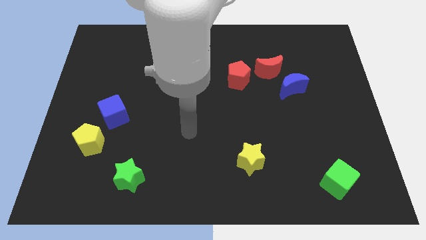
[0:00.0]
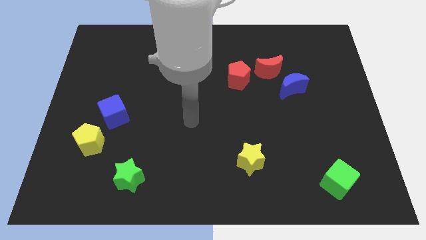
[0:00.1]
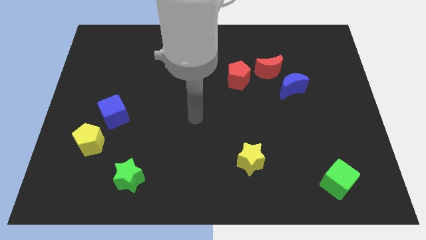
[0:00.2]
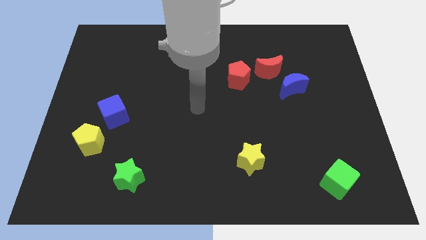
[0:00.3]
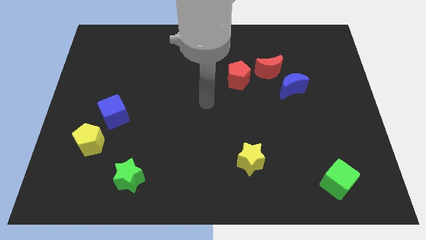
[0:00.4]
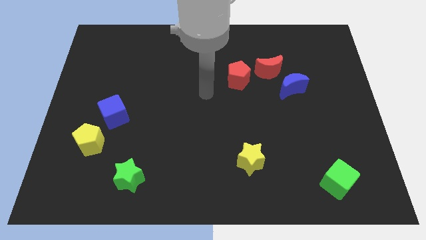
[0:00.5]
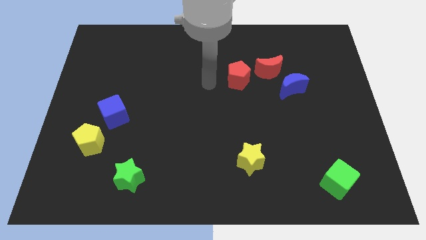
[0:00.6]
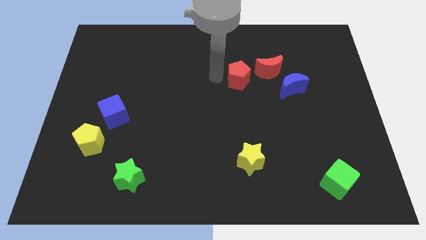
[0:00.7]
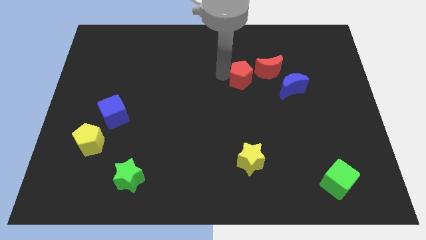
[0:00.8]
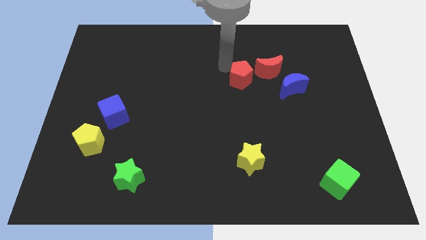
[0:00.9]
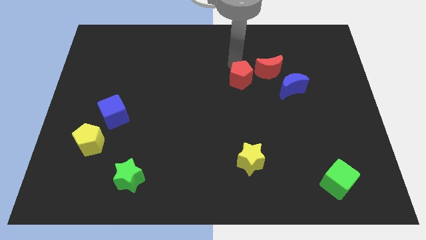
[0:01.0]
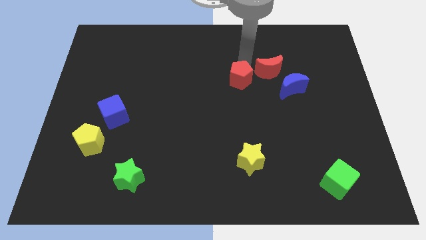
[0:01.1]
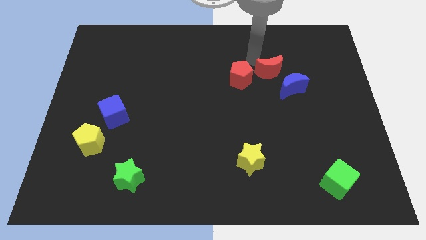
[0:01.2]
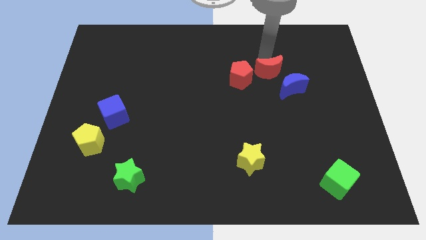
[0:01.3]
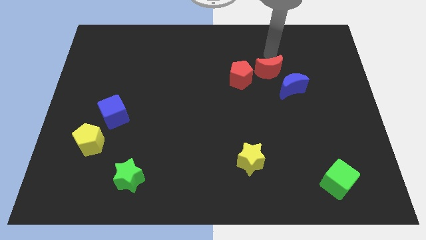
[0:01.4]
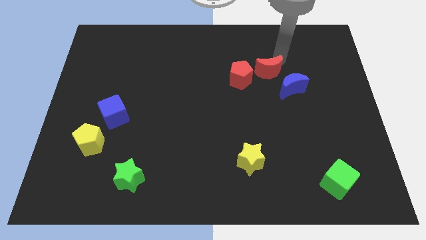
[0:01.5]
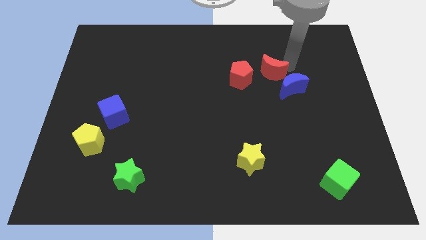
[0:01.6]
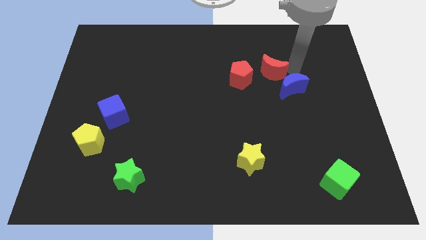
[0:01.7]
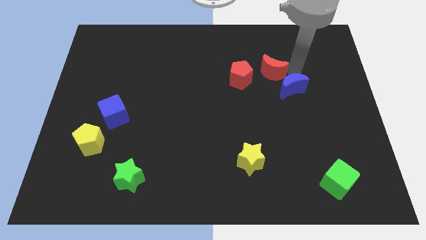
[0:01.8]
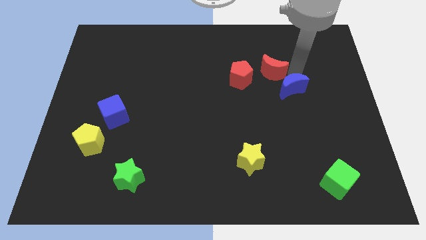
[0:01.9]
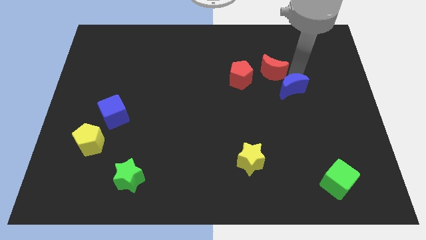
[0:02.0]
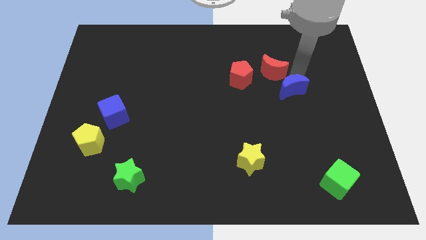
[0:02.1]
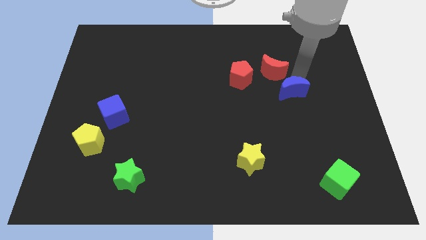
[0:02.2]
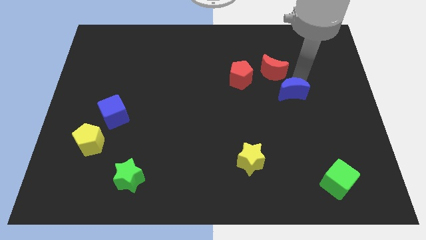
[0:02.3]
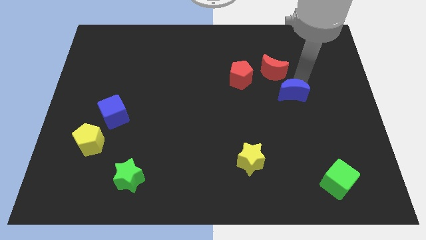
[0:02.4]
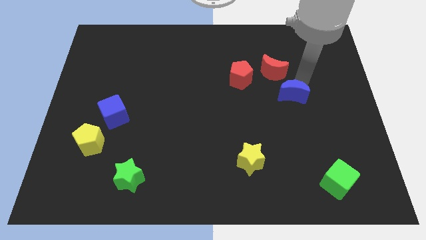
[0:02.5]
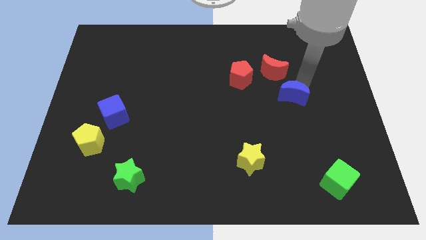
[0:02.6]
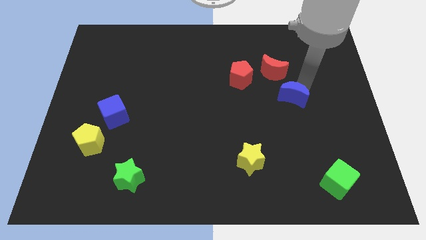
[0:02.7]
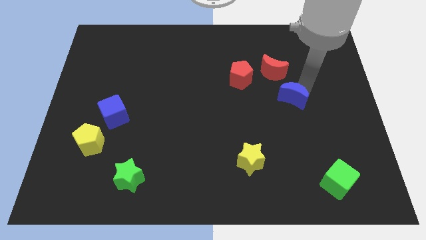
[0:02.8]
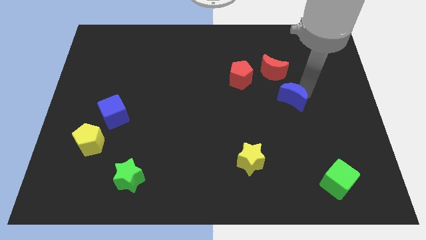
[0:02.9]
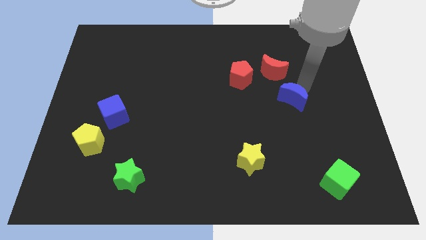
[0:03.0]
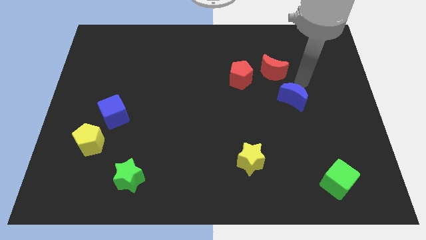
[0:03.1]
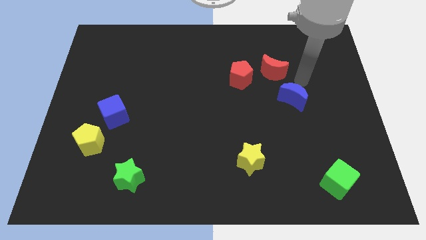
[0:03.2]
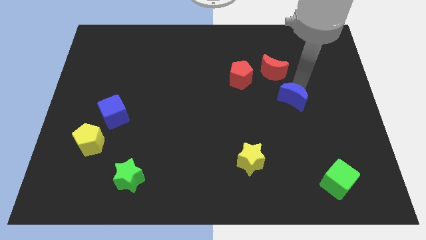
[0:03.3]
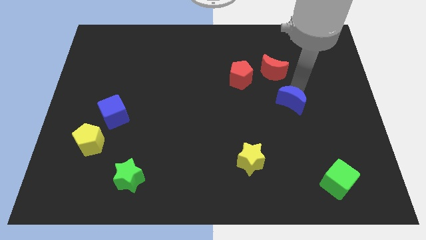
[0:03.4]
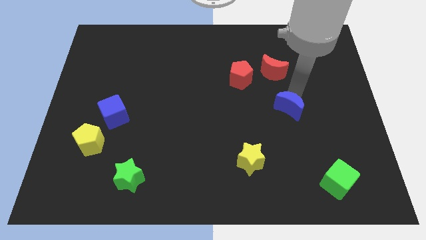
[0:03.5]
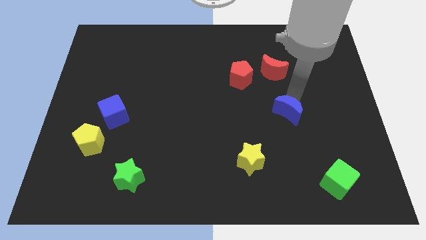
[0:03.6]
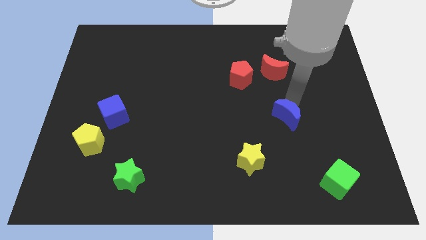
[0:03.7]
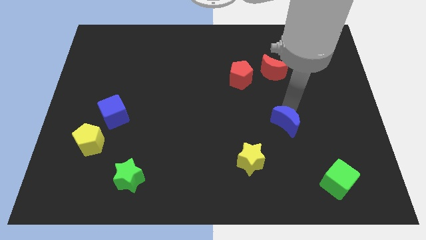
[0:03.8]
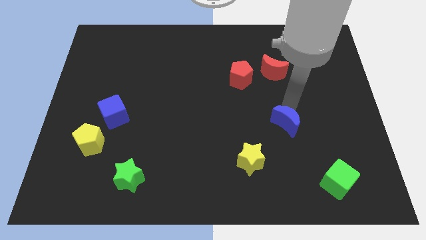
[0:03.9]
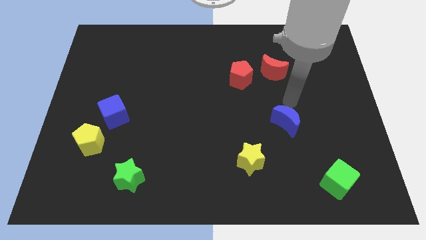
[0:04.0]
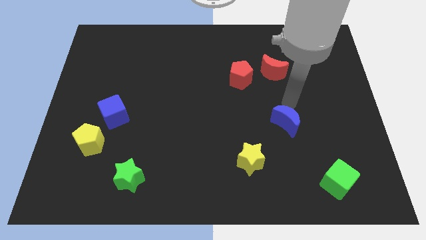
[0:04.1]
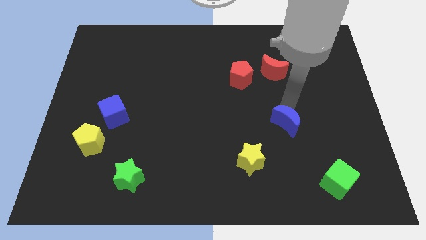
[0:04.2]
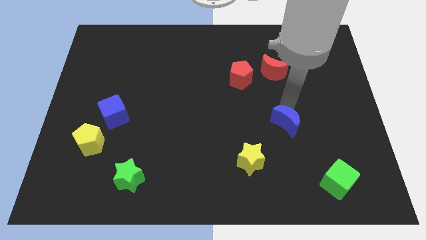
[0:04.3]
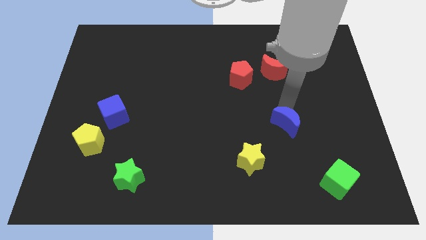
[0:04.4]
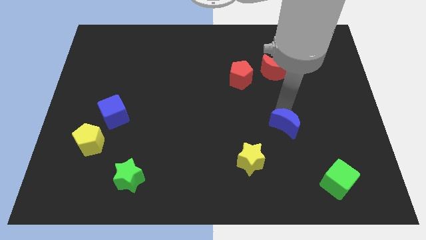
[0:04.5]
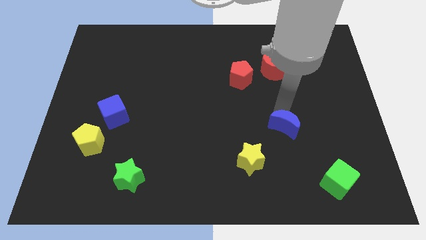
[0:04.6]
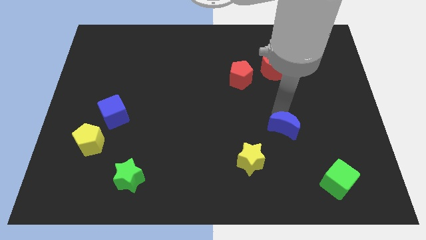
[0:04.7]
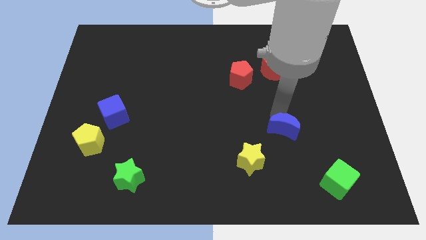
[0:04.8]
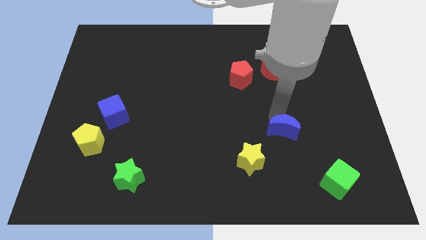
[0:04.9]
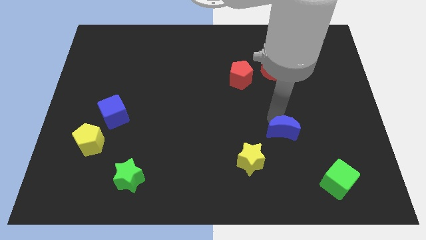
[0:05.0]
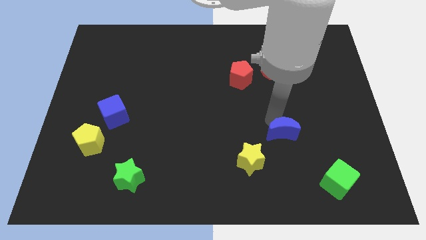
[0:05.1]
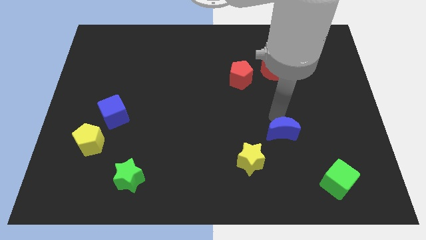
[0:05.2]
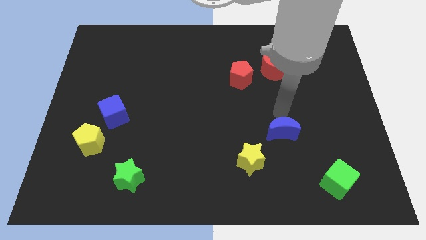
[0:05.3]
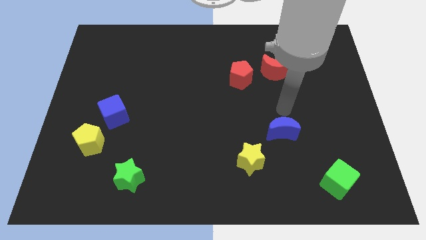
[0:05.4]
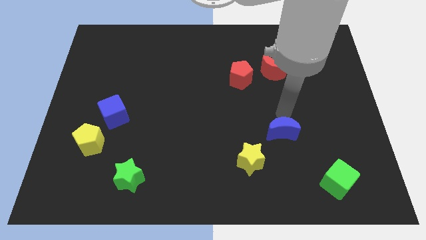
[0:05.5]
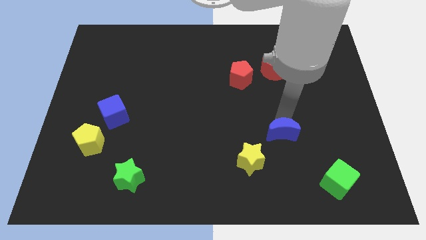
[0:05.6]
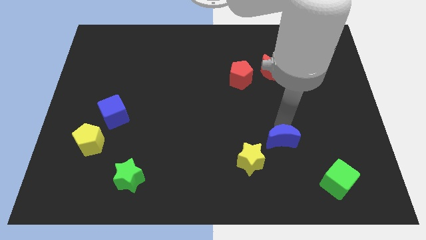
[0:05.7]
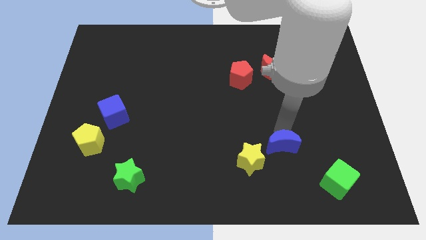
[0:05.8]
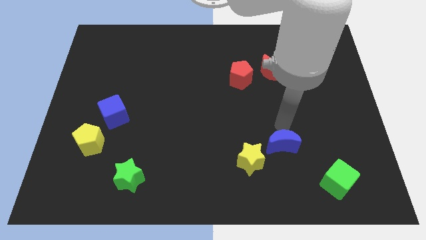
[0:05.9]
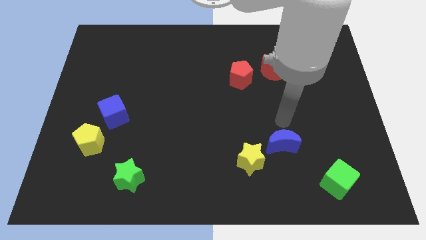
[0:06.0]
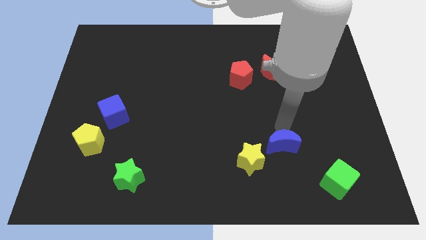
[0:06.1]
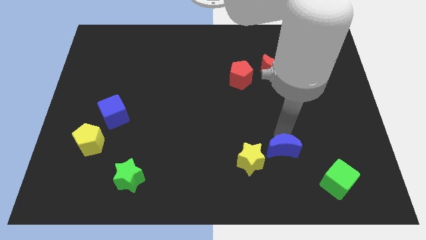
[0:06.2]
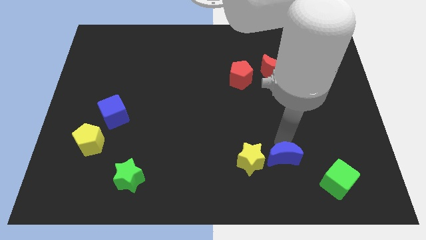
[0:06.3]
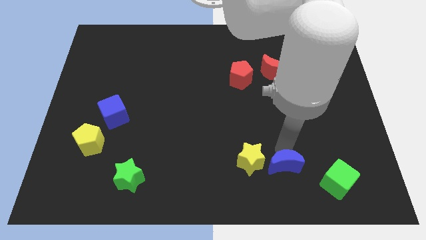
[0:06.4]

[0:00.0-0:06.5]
push the blue moon diagonally down and to the right of the yellow star
